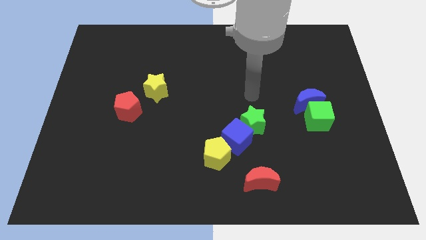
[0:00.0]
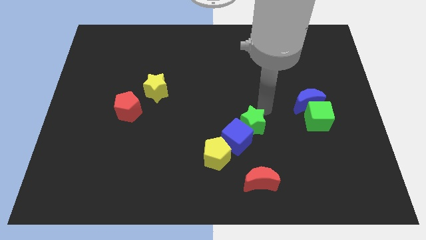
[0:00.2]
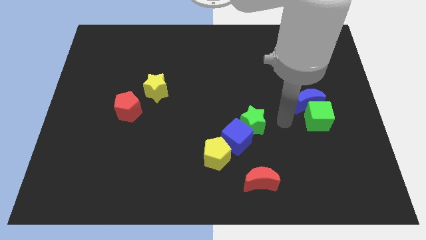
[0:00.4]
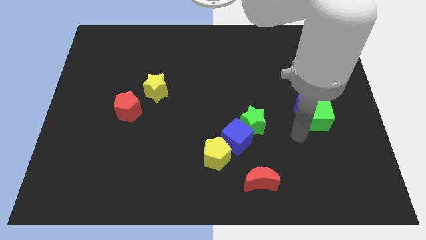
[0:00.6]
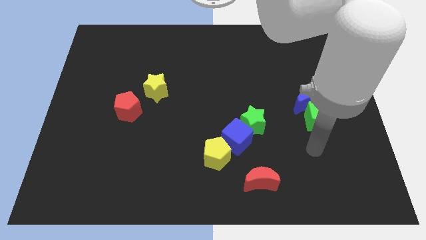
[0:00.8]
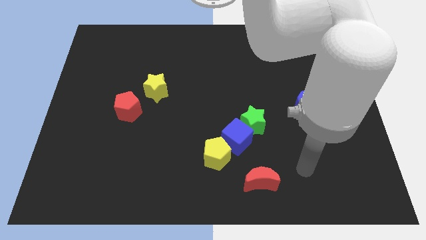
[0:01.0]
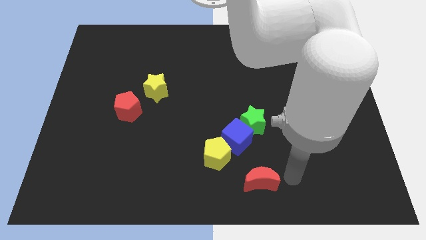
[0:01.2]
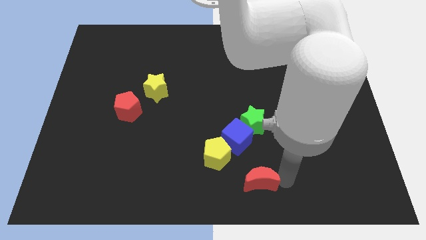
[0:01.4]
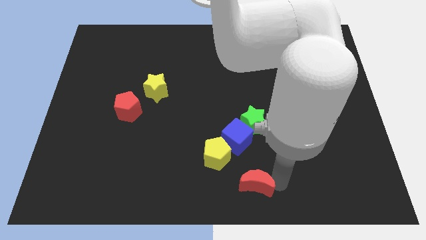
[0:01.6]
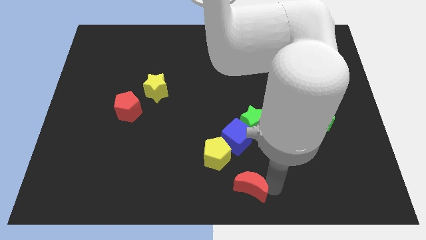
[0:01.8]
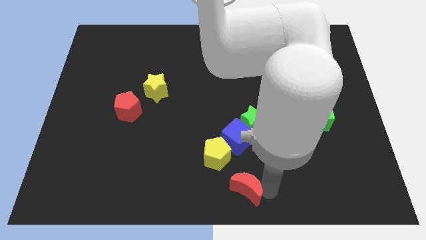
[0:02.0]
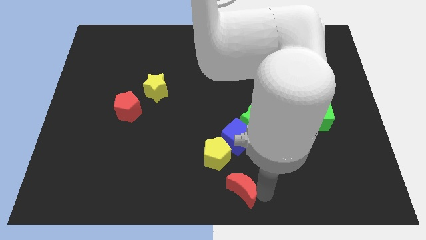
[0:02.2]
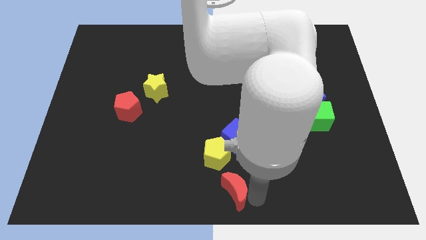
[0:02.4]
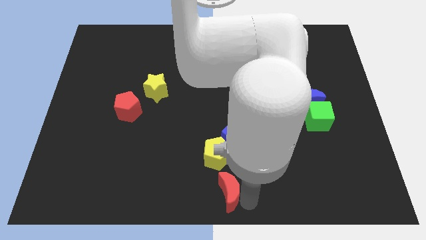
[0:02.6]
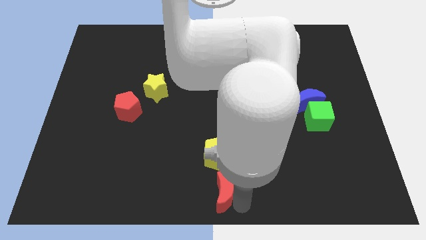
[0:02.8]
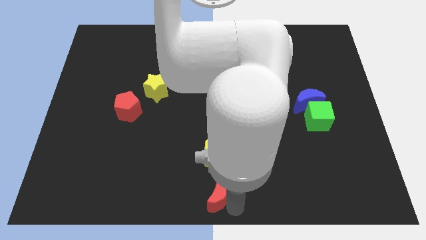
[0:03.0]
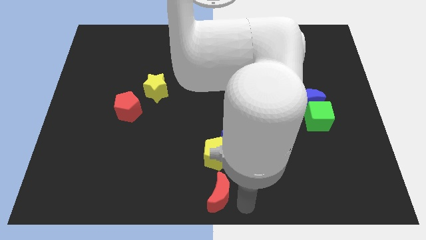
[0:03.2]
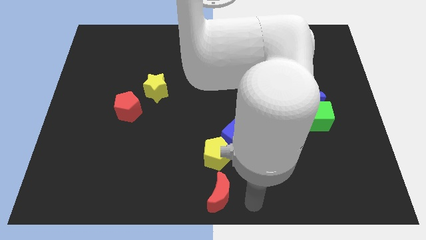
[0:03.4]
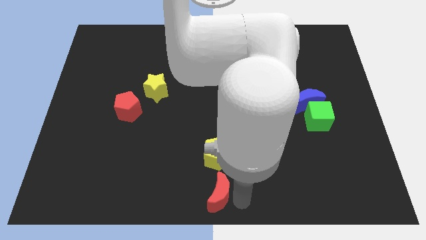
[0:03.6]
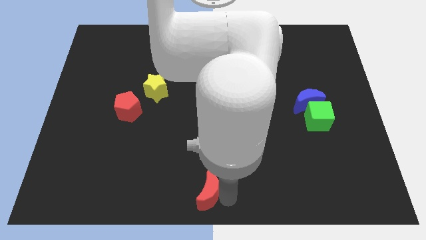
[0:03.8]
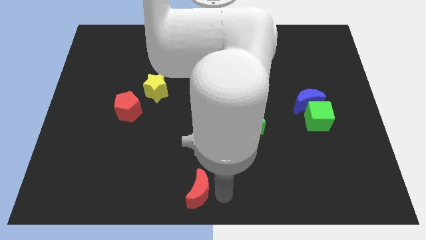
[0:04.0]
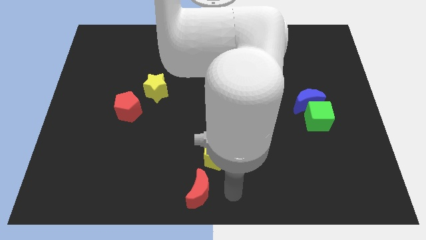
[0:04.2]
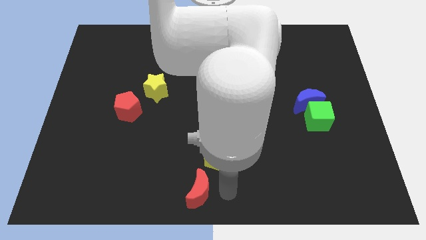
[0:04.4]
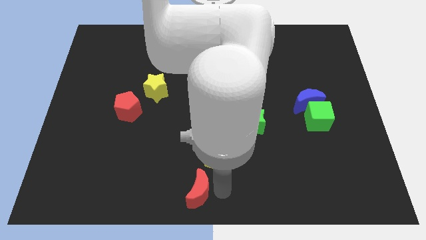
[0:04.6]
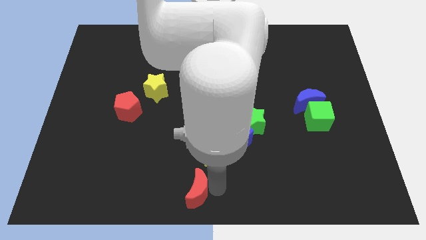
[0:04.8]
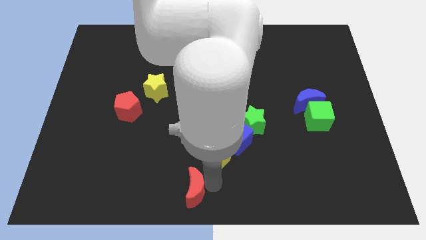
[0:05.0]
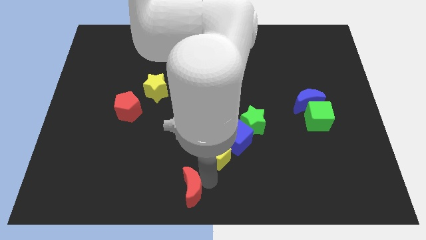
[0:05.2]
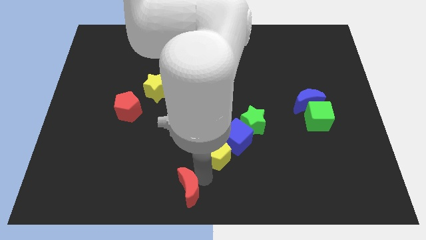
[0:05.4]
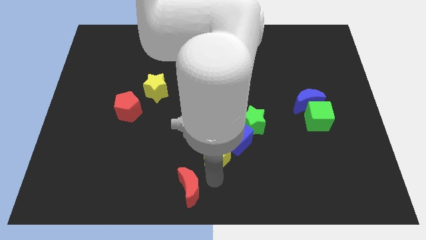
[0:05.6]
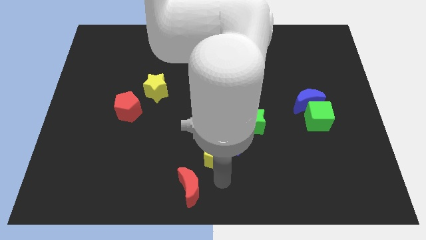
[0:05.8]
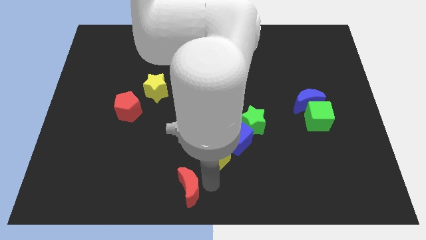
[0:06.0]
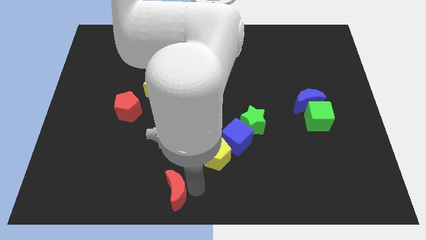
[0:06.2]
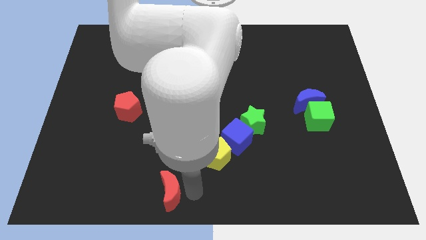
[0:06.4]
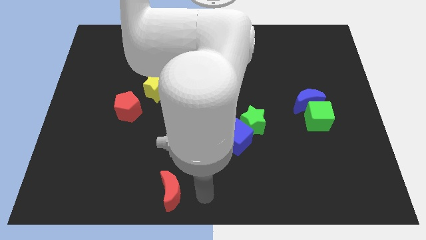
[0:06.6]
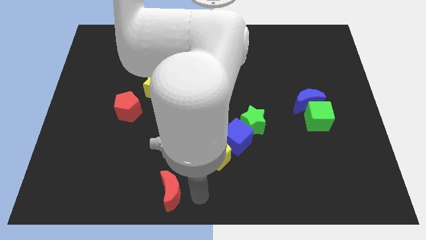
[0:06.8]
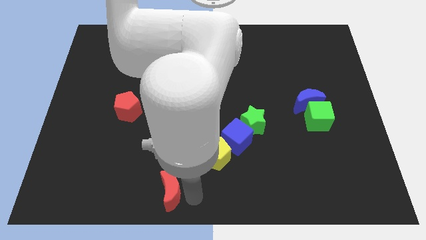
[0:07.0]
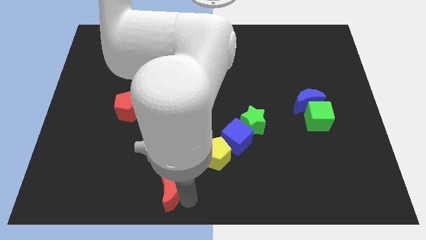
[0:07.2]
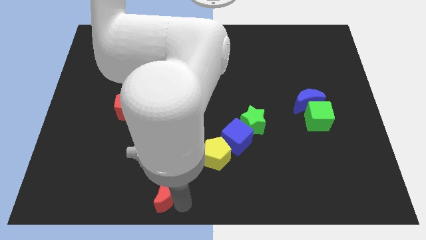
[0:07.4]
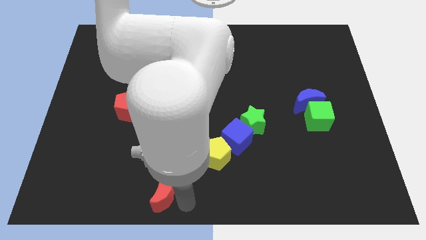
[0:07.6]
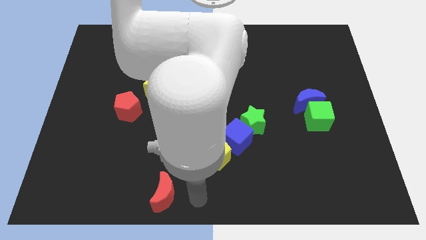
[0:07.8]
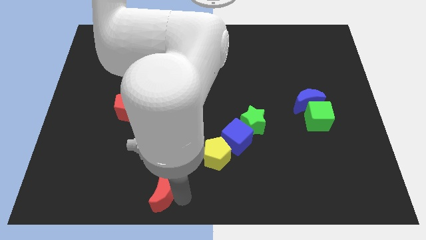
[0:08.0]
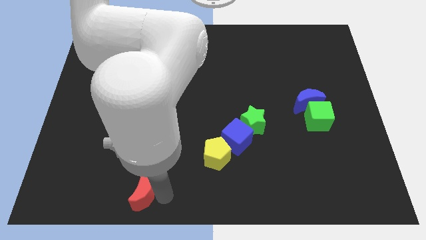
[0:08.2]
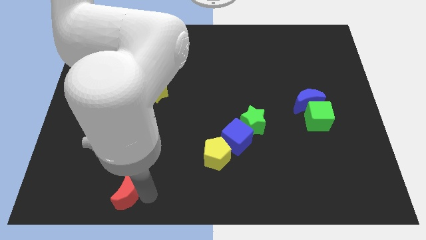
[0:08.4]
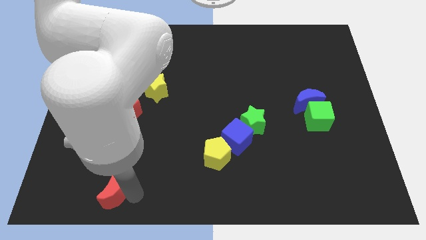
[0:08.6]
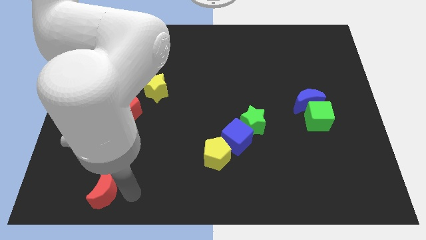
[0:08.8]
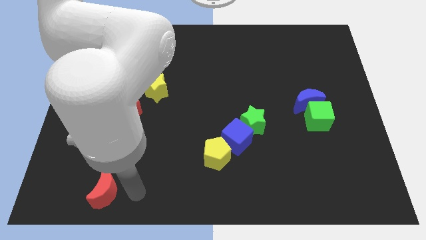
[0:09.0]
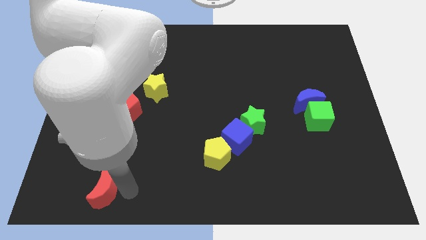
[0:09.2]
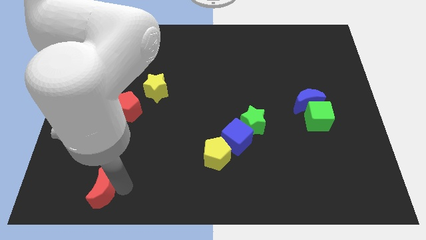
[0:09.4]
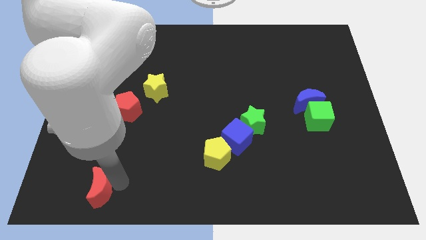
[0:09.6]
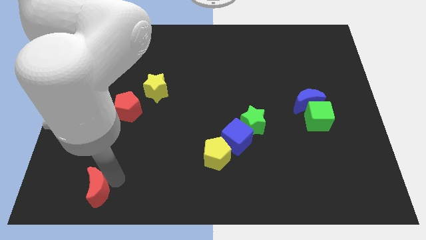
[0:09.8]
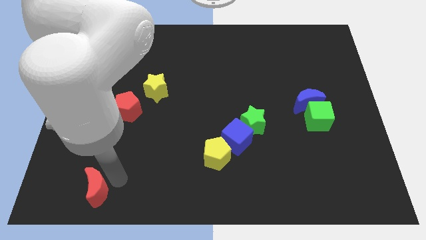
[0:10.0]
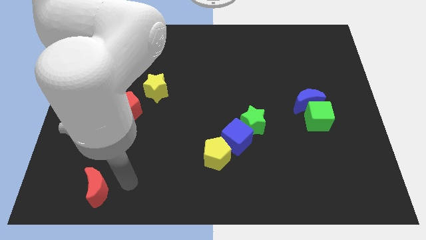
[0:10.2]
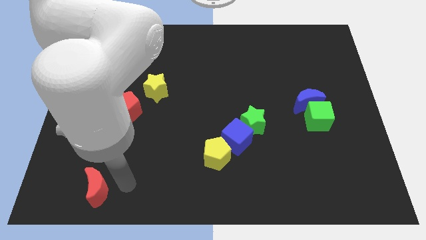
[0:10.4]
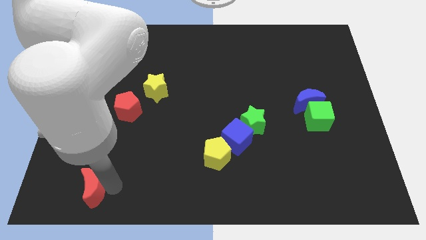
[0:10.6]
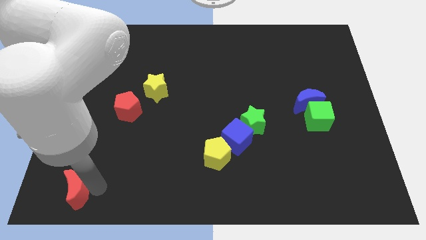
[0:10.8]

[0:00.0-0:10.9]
push the red moon to the lower left corner

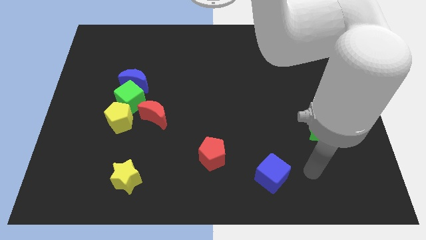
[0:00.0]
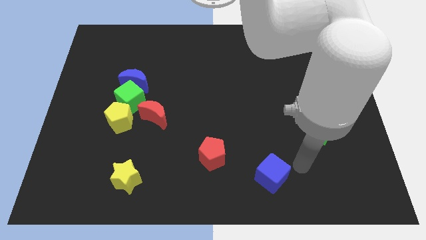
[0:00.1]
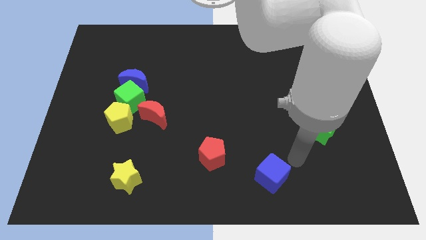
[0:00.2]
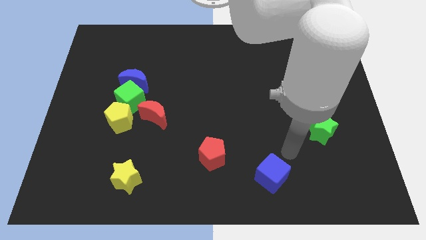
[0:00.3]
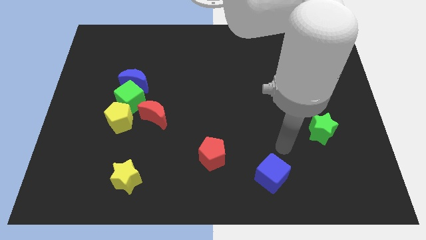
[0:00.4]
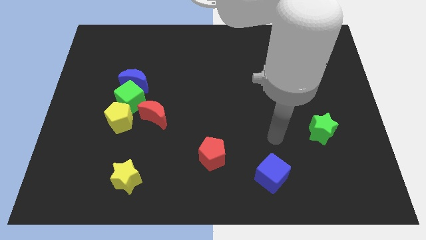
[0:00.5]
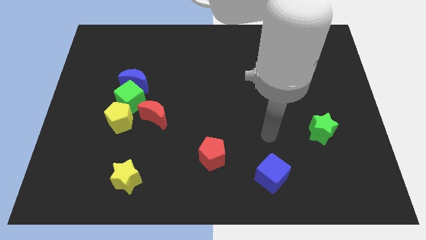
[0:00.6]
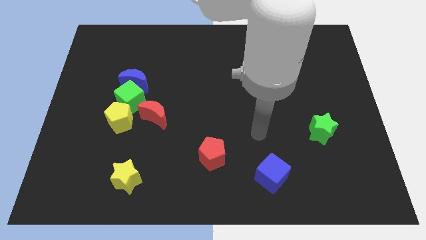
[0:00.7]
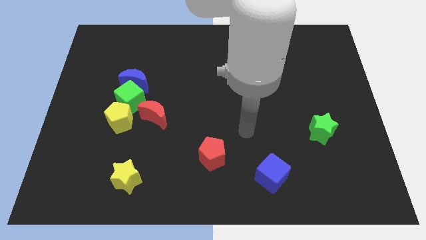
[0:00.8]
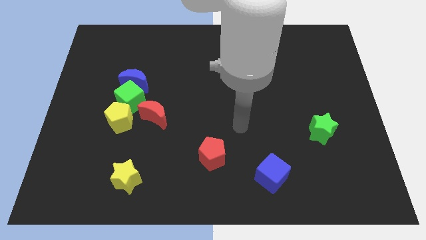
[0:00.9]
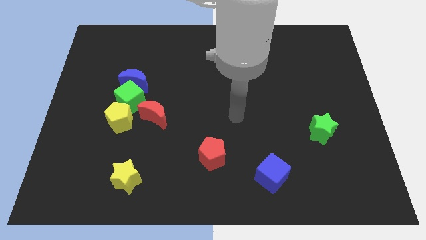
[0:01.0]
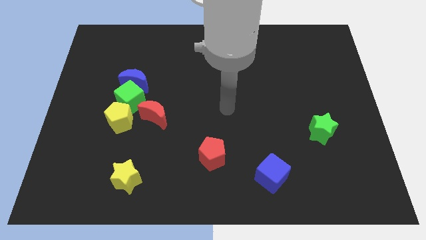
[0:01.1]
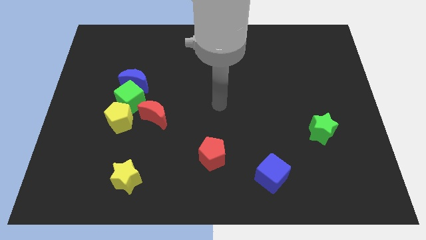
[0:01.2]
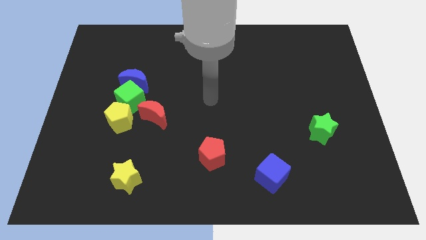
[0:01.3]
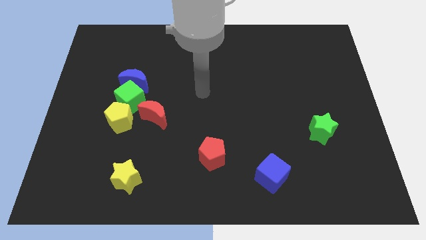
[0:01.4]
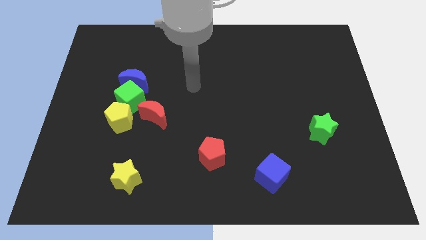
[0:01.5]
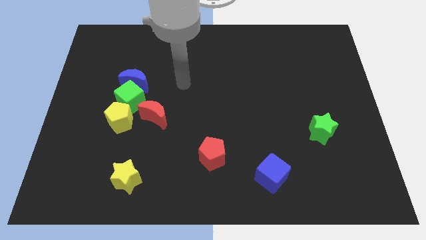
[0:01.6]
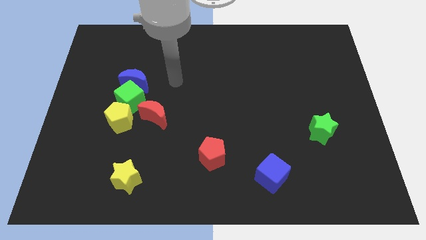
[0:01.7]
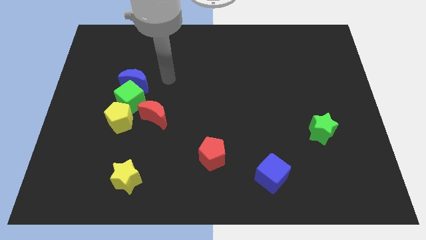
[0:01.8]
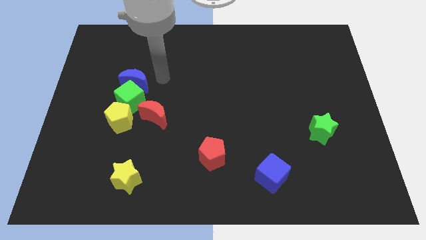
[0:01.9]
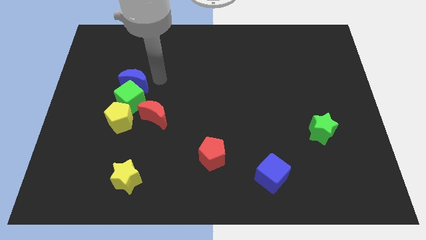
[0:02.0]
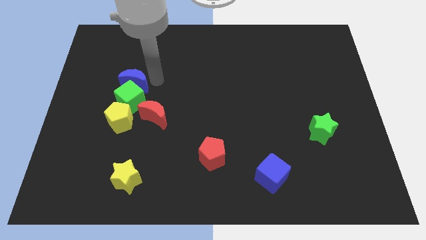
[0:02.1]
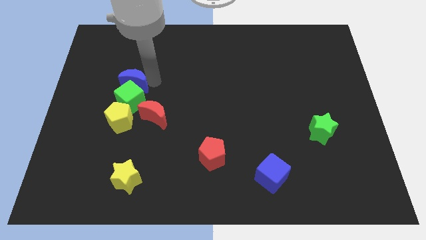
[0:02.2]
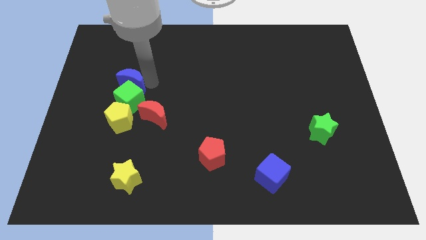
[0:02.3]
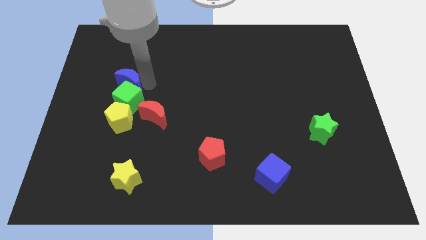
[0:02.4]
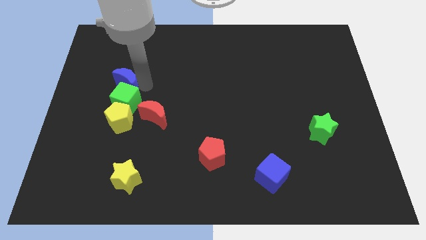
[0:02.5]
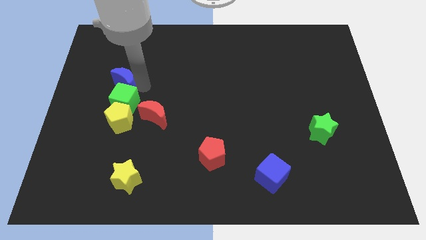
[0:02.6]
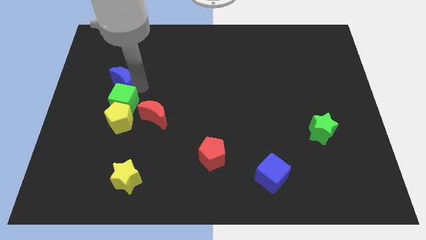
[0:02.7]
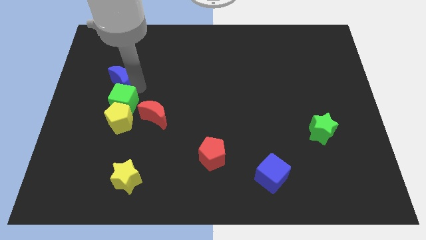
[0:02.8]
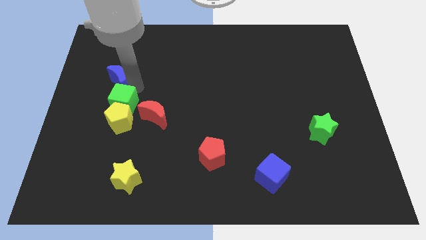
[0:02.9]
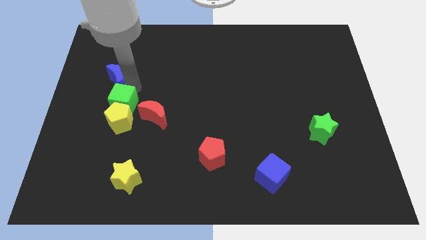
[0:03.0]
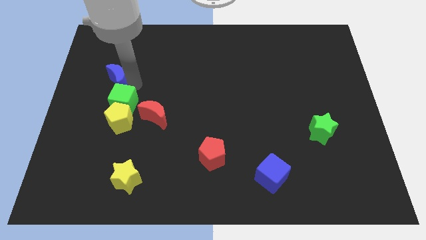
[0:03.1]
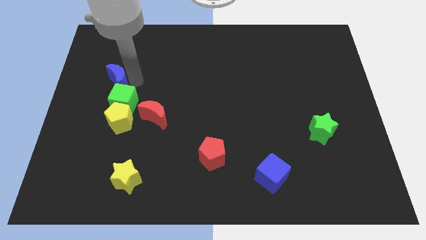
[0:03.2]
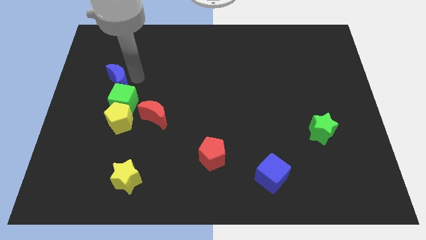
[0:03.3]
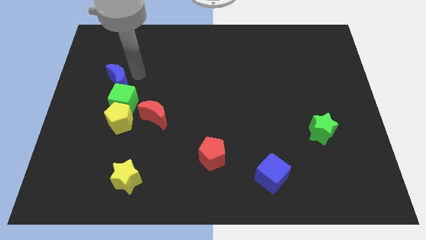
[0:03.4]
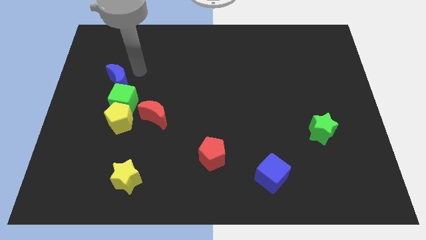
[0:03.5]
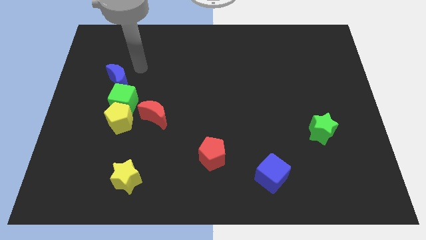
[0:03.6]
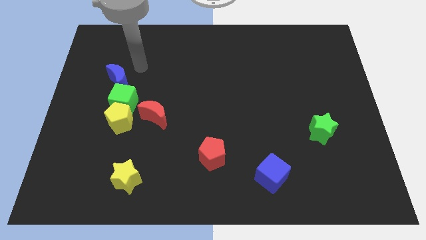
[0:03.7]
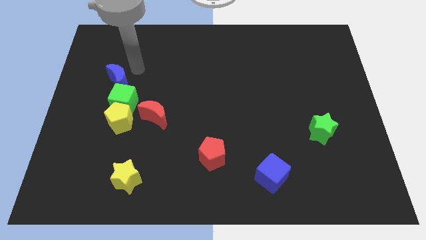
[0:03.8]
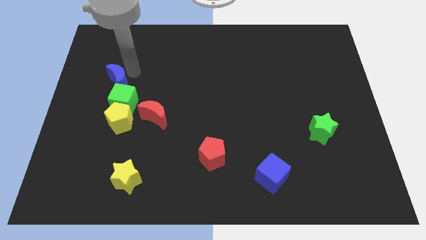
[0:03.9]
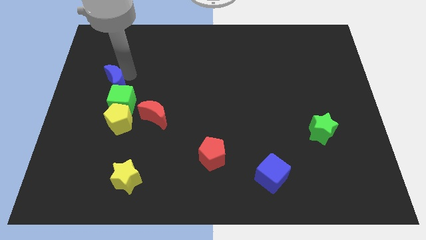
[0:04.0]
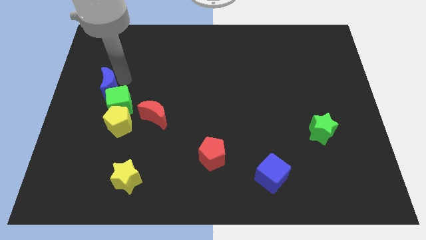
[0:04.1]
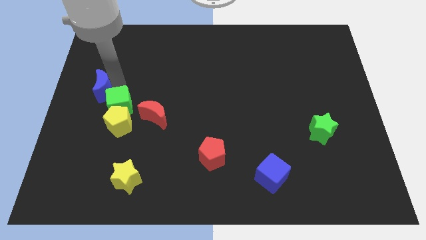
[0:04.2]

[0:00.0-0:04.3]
put the blue moon to the left side
